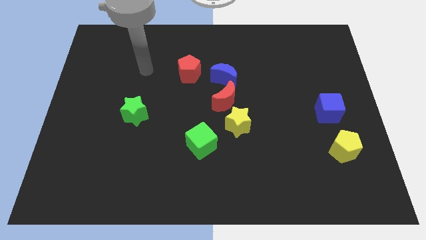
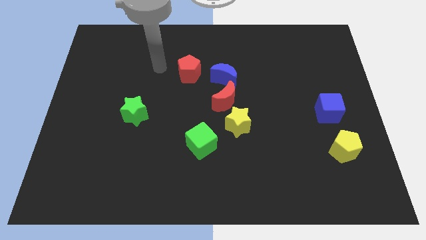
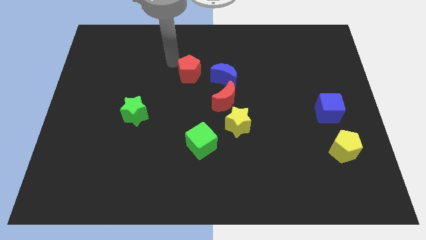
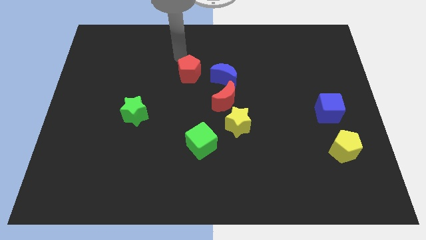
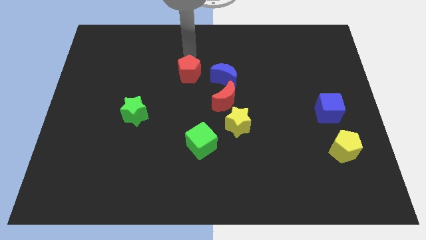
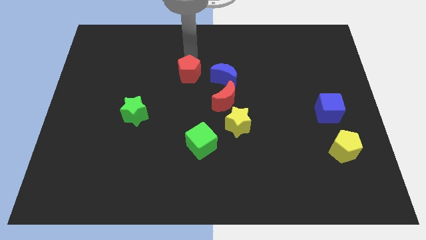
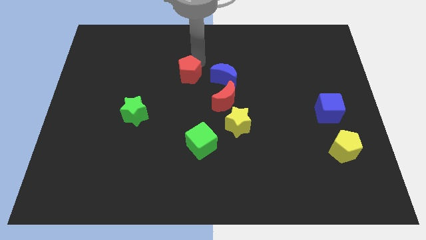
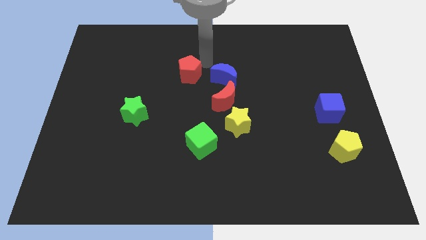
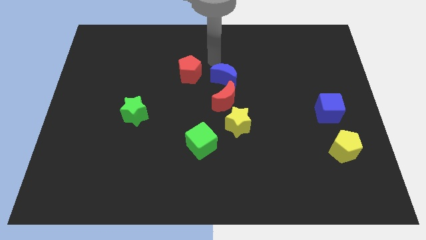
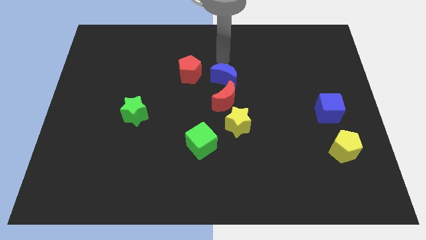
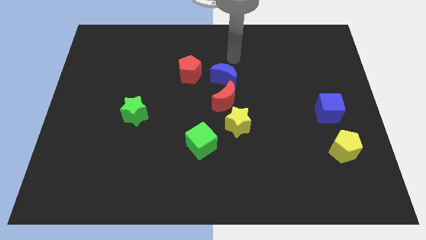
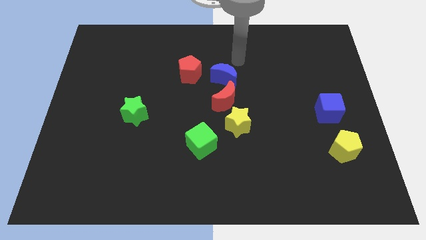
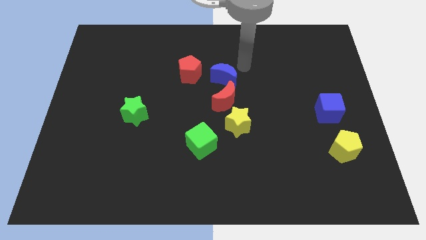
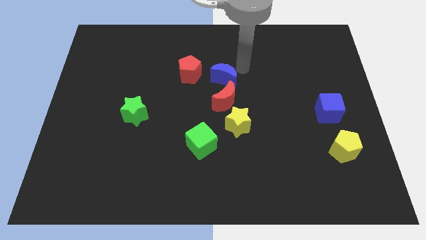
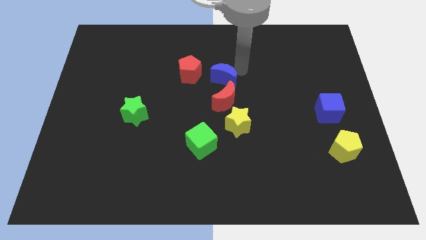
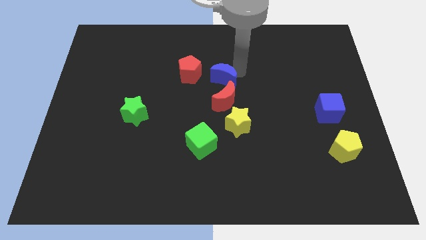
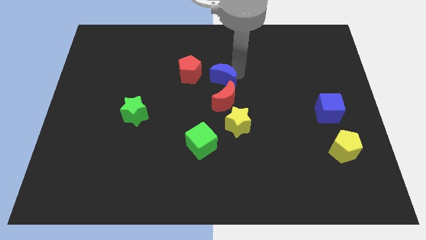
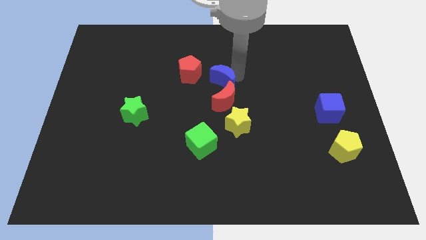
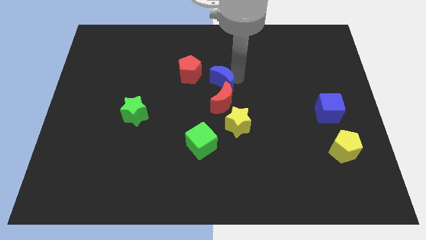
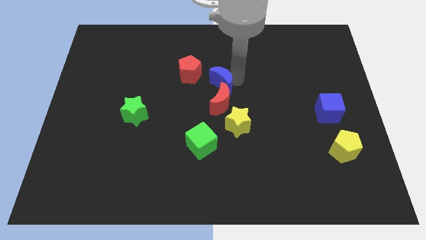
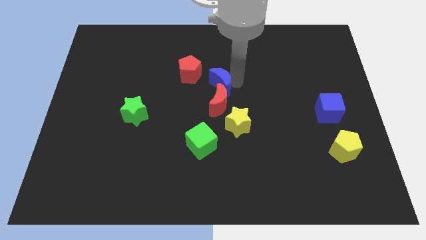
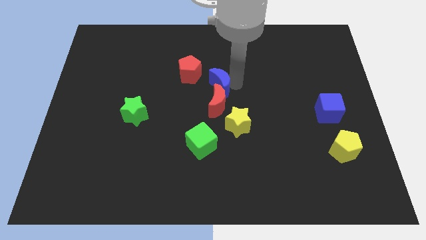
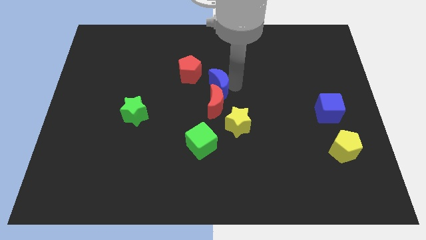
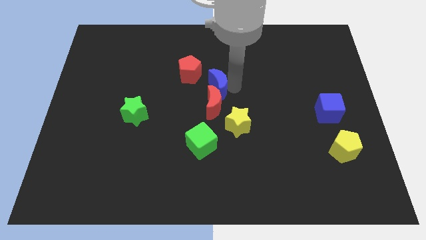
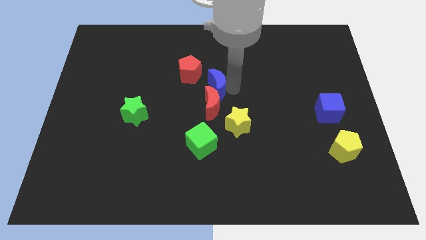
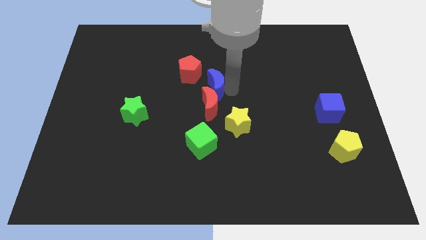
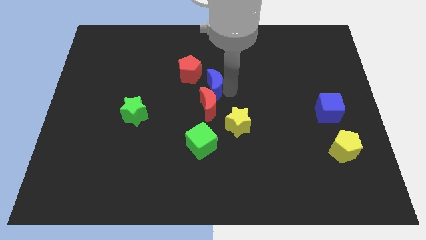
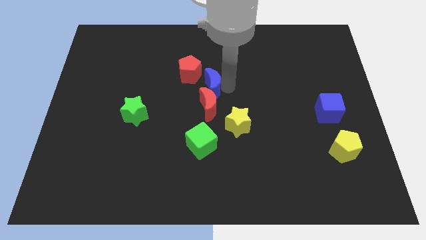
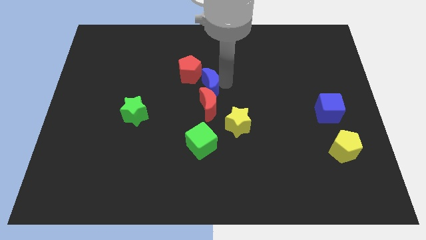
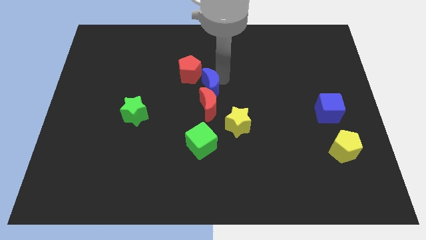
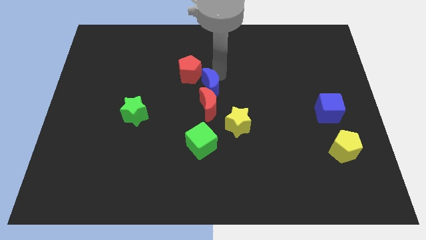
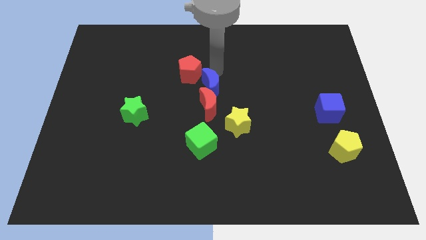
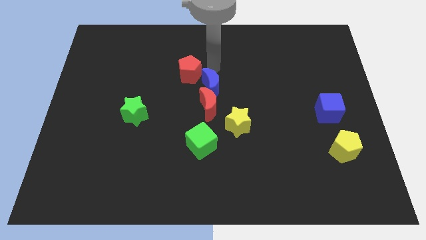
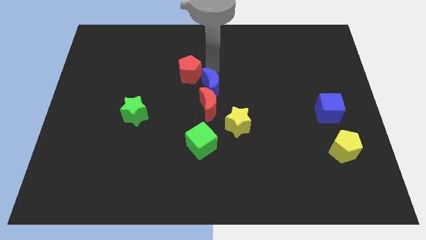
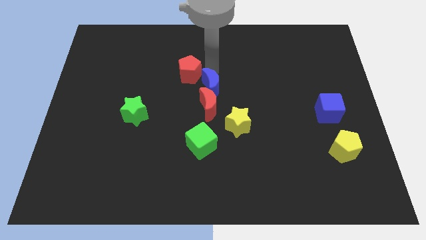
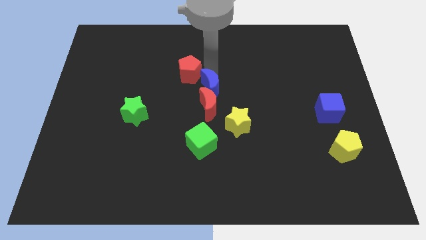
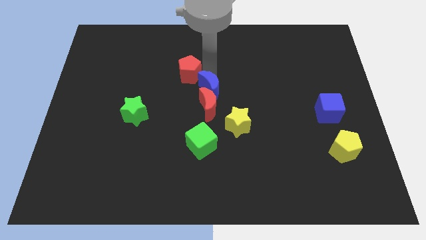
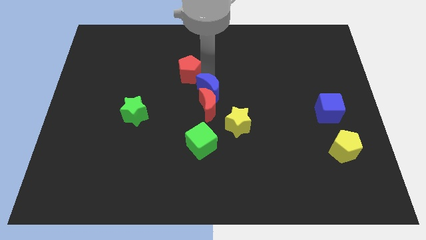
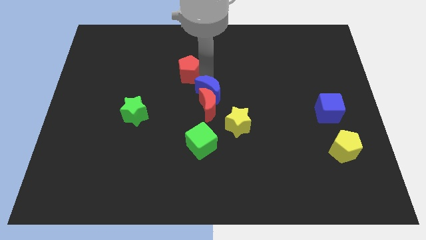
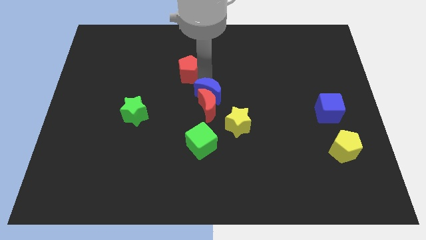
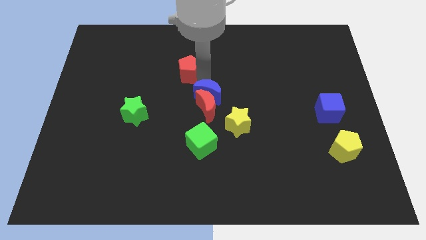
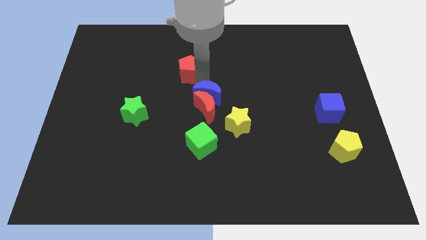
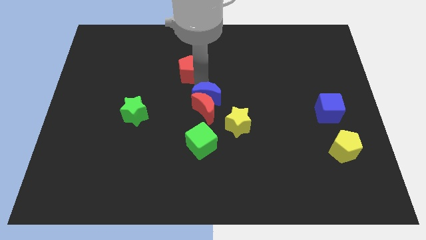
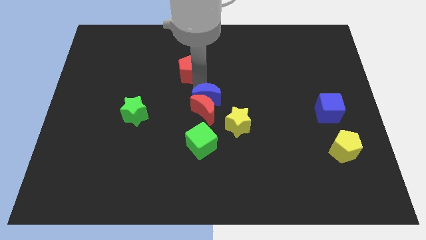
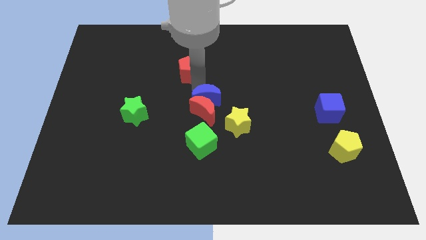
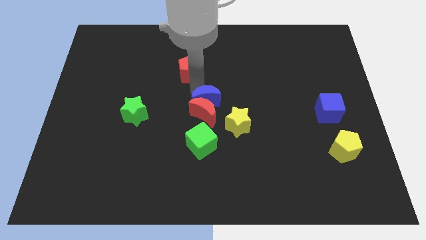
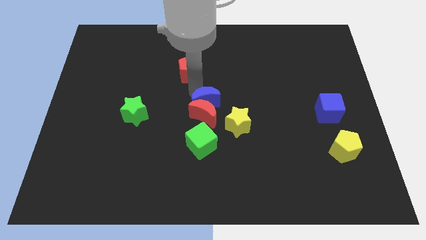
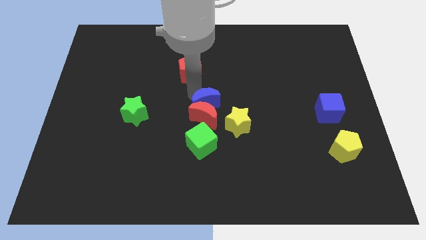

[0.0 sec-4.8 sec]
slightly slide the blue moon downwards

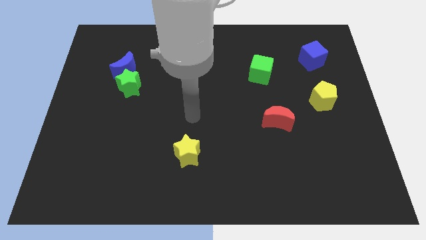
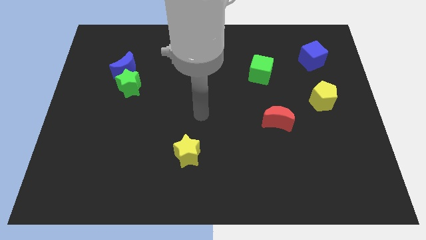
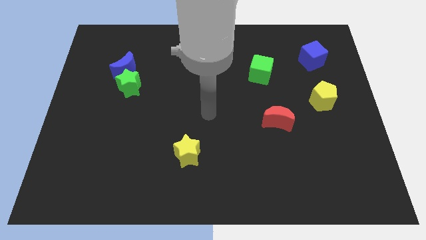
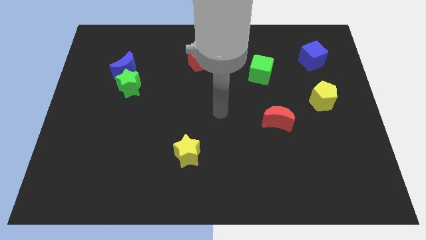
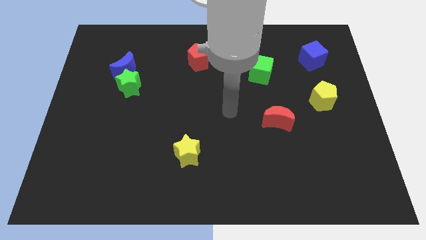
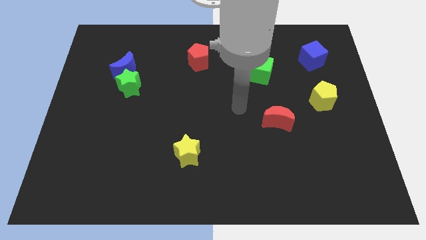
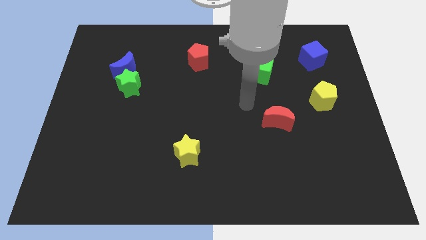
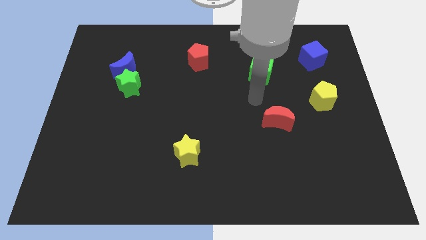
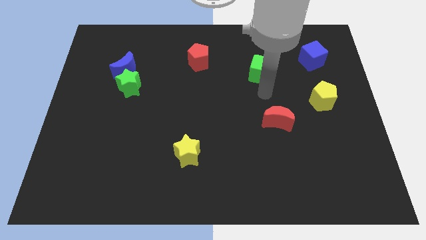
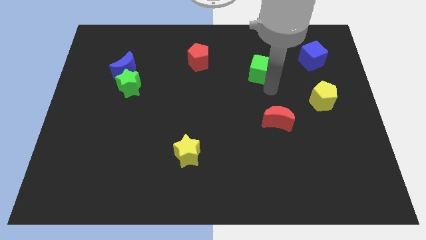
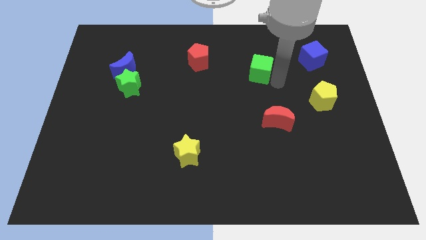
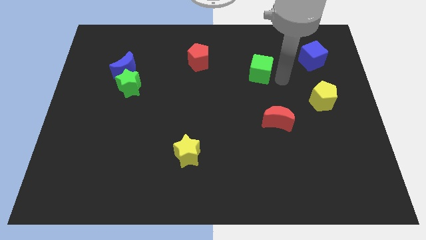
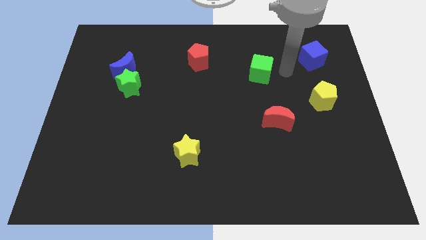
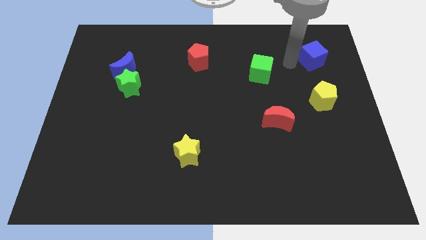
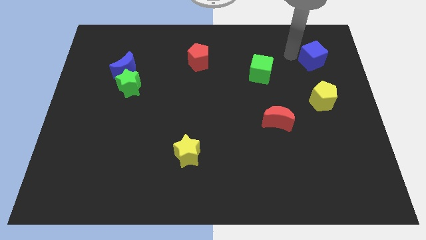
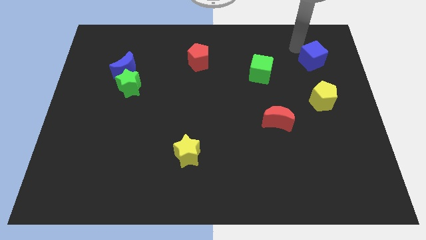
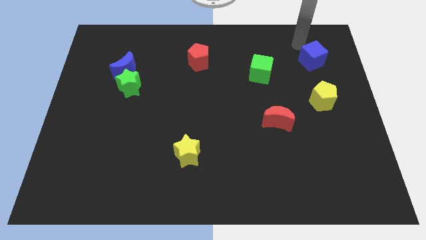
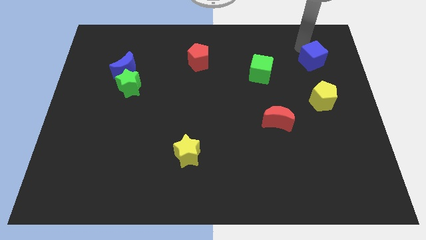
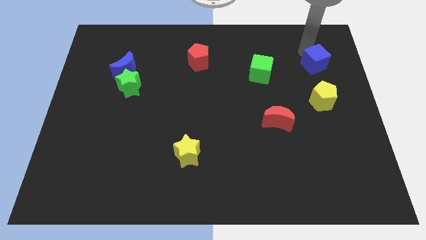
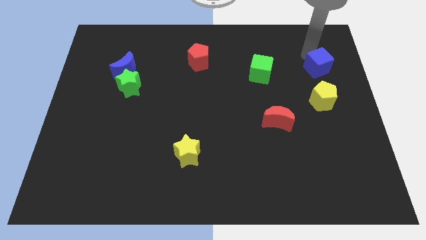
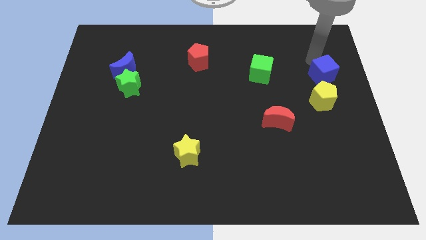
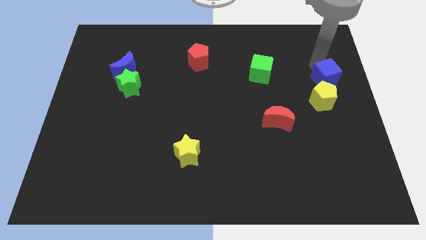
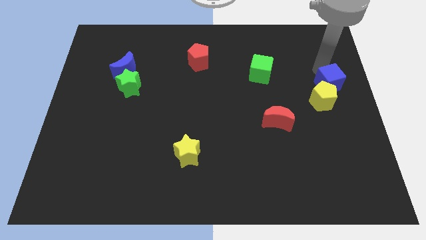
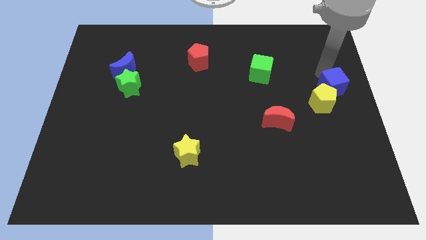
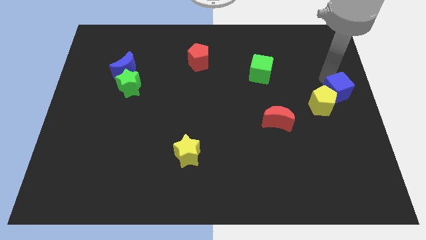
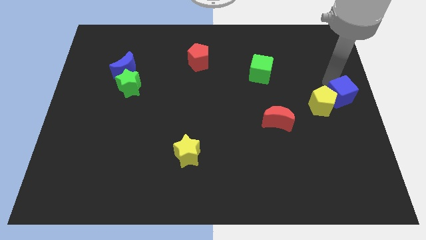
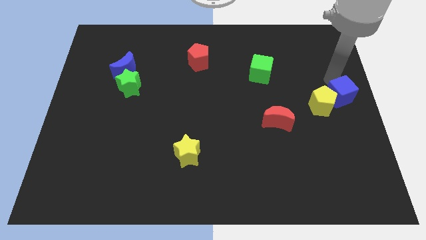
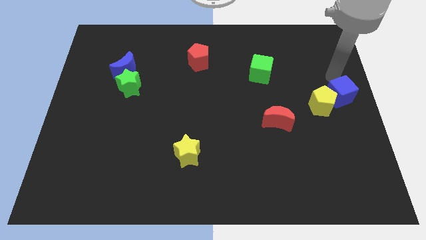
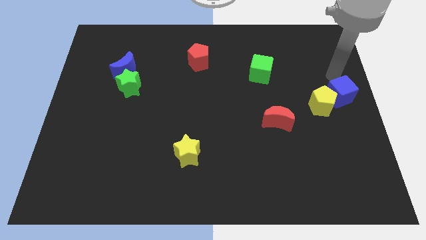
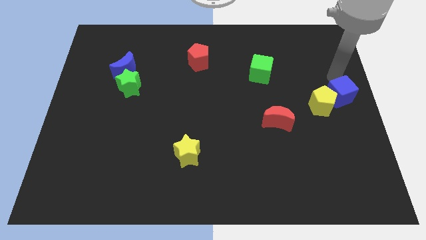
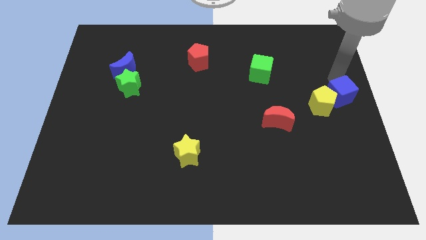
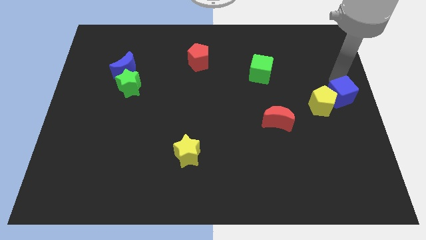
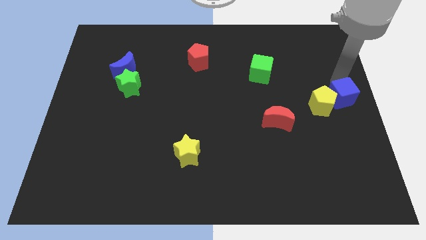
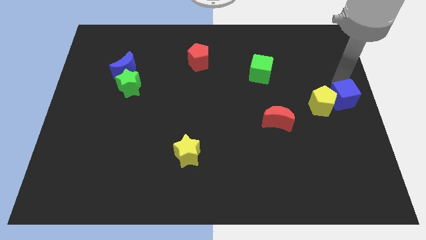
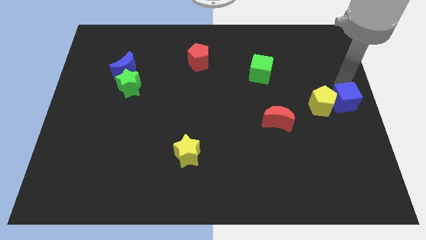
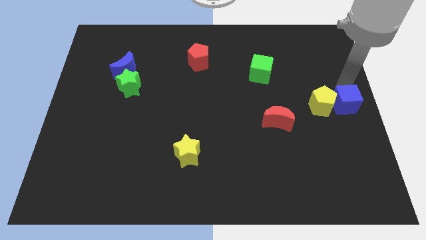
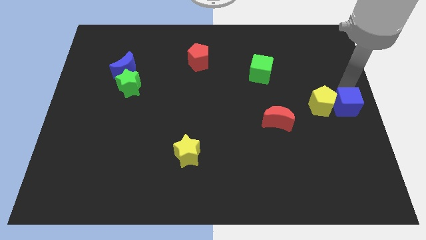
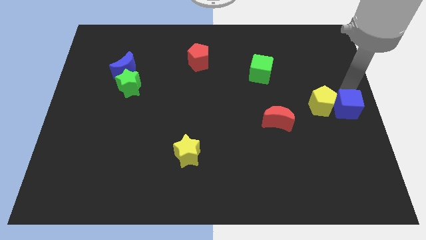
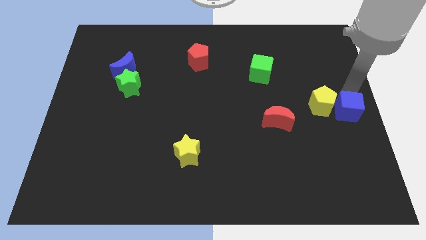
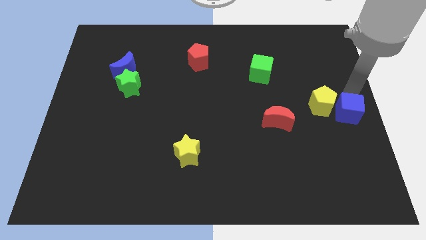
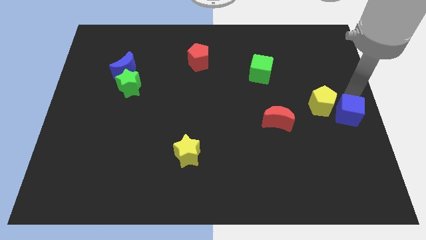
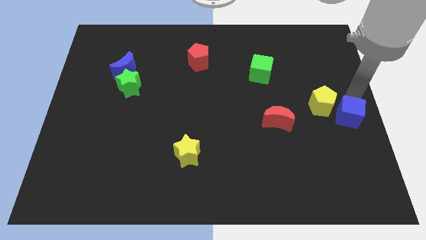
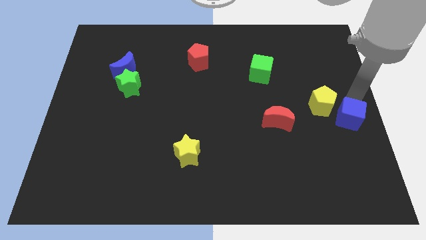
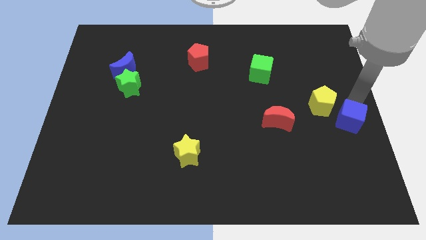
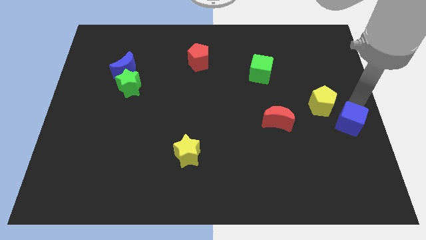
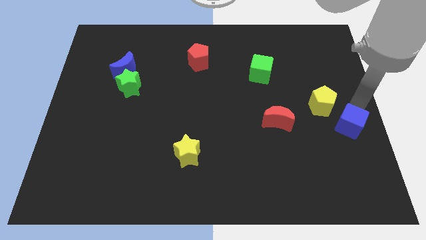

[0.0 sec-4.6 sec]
move the blue cube downwards
